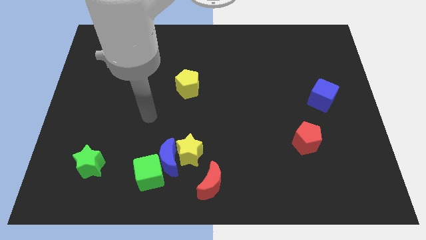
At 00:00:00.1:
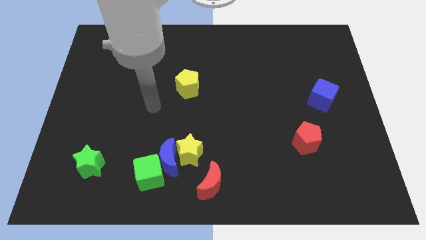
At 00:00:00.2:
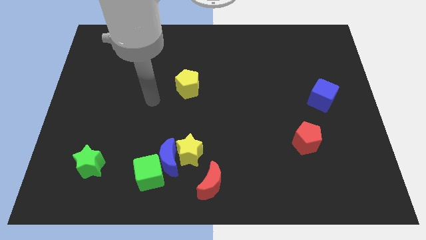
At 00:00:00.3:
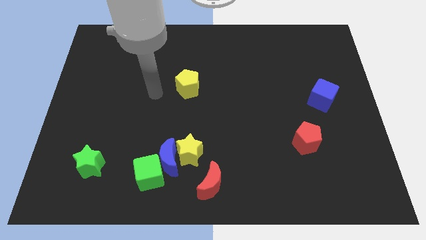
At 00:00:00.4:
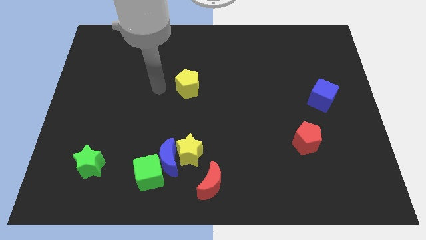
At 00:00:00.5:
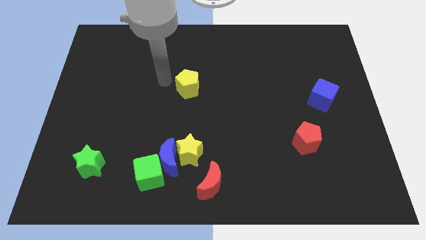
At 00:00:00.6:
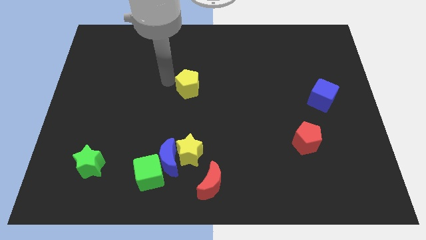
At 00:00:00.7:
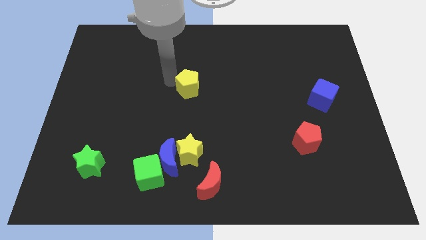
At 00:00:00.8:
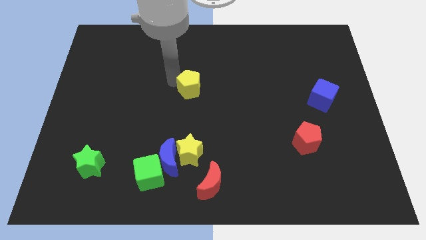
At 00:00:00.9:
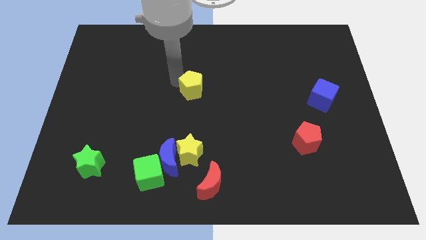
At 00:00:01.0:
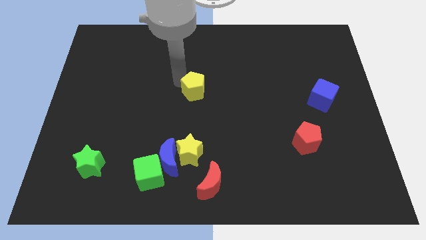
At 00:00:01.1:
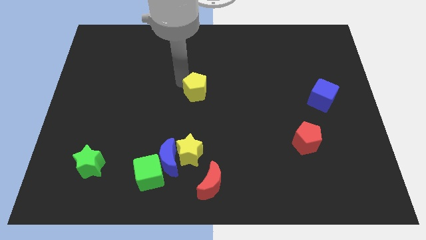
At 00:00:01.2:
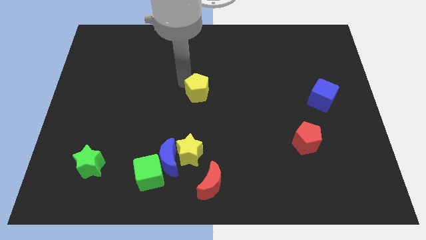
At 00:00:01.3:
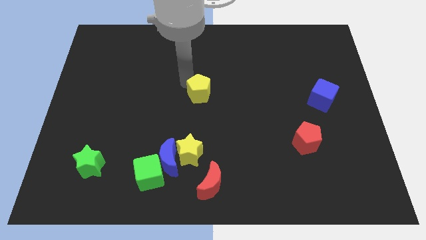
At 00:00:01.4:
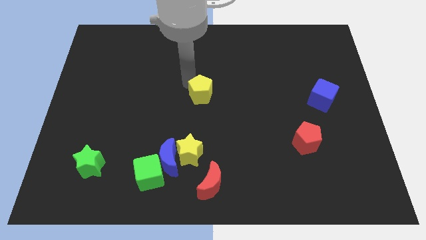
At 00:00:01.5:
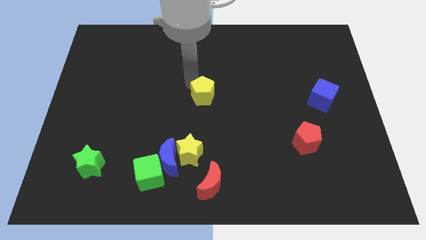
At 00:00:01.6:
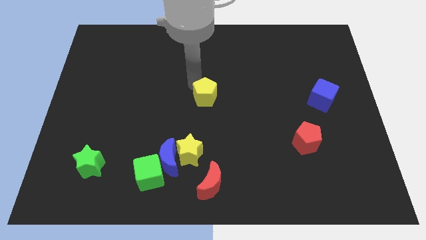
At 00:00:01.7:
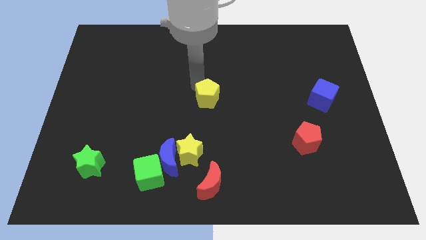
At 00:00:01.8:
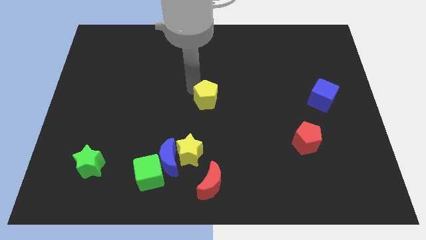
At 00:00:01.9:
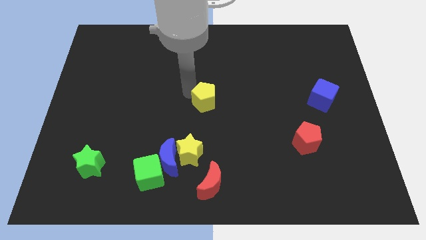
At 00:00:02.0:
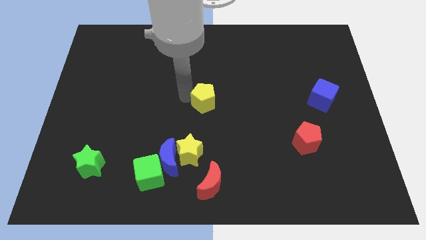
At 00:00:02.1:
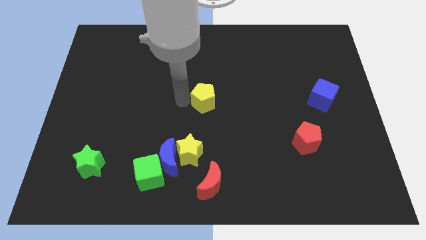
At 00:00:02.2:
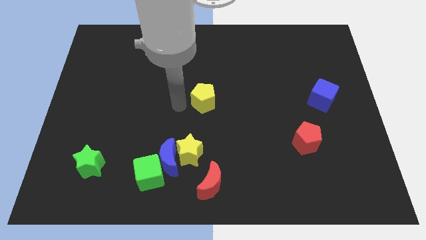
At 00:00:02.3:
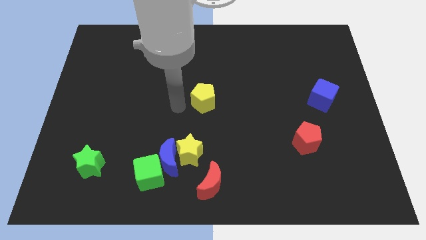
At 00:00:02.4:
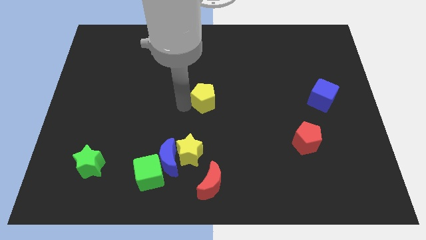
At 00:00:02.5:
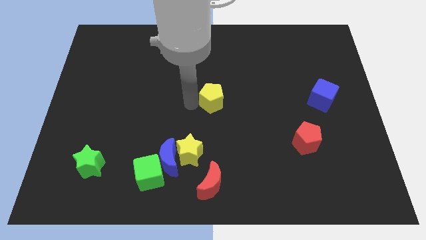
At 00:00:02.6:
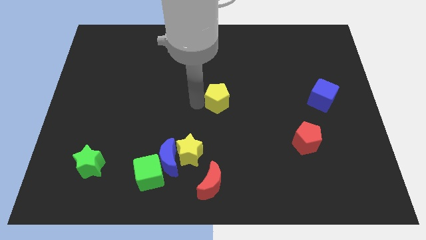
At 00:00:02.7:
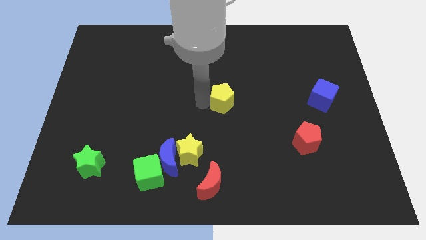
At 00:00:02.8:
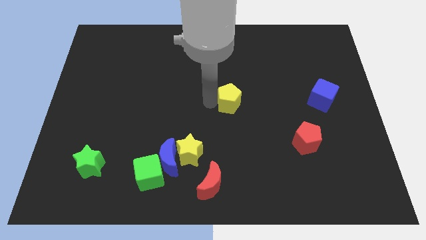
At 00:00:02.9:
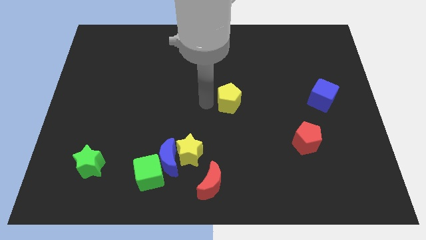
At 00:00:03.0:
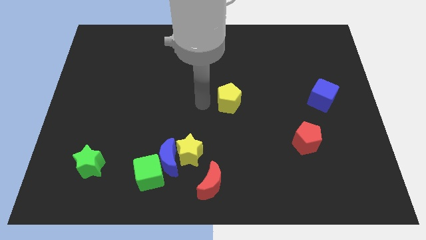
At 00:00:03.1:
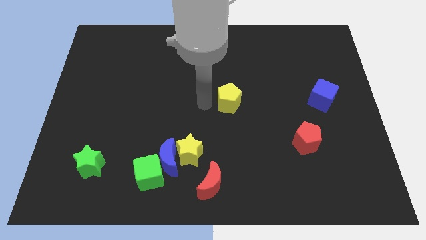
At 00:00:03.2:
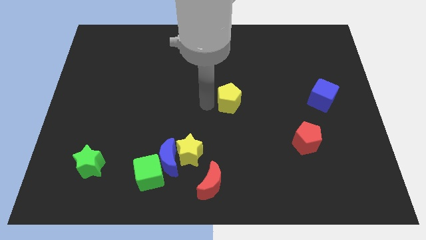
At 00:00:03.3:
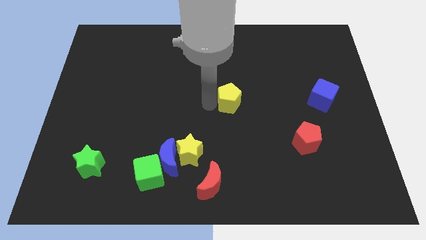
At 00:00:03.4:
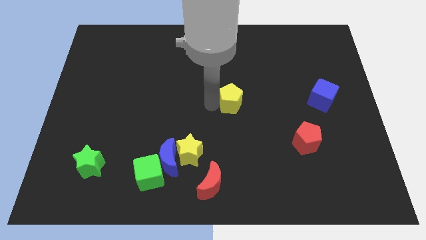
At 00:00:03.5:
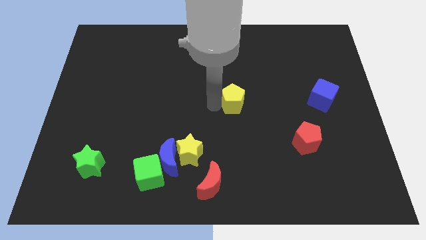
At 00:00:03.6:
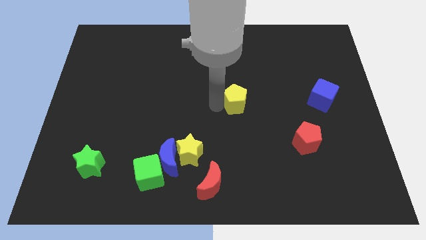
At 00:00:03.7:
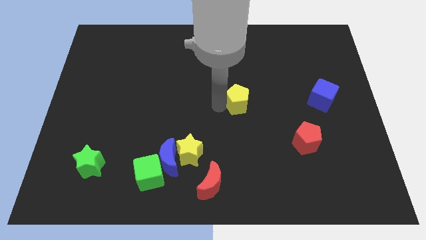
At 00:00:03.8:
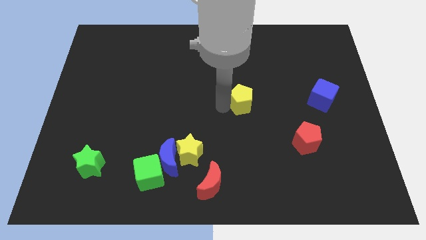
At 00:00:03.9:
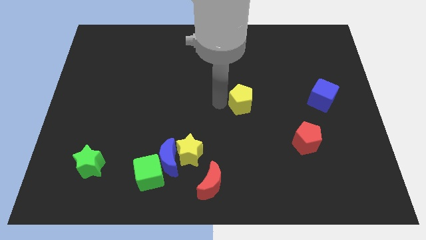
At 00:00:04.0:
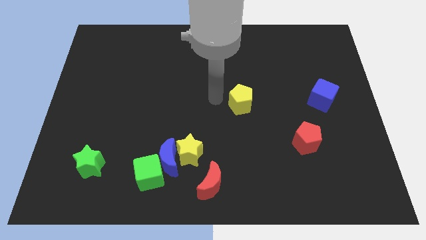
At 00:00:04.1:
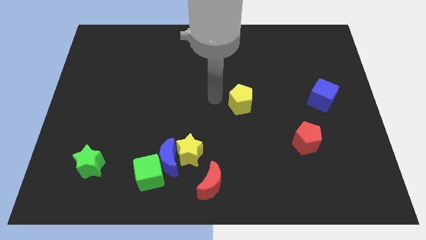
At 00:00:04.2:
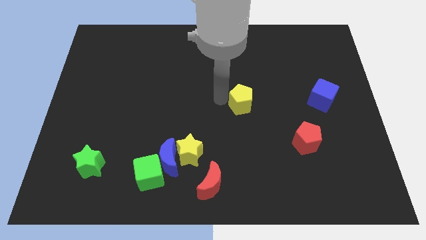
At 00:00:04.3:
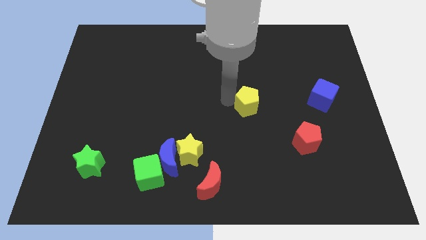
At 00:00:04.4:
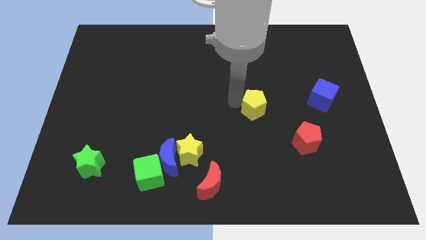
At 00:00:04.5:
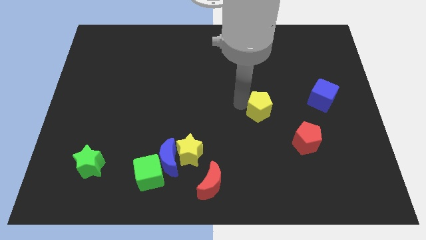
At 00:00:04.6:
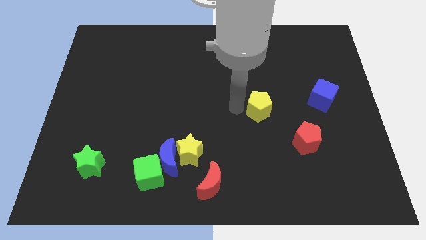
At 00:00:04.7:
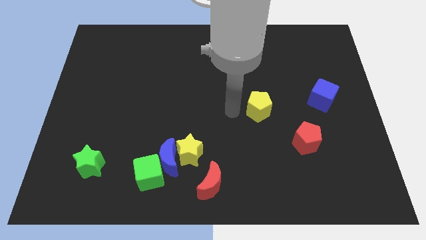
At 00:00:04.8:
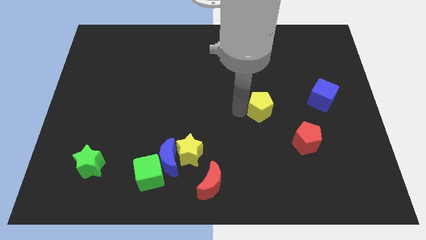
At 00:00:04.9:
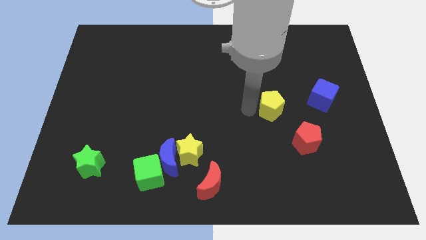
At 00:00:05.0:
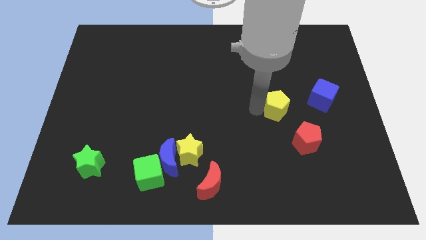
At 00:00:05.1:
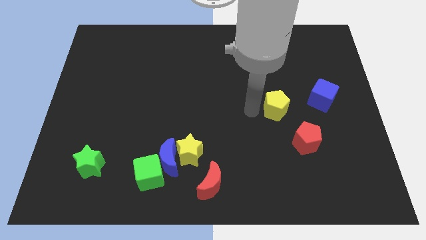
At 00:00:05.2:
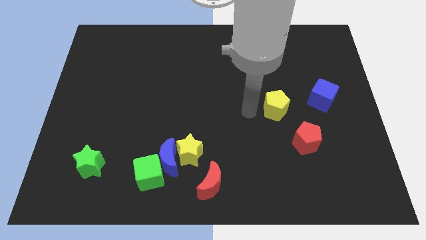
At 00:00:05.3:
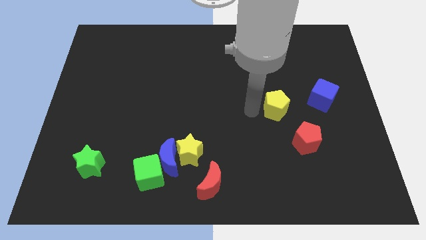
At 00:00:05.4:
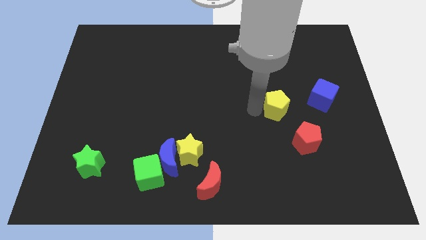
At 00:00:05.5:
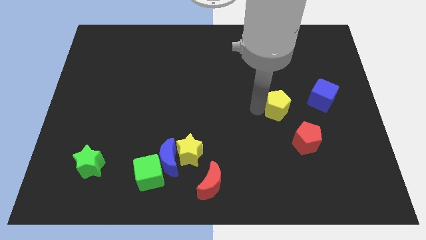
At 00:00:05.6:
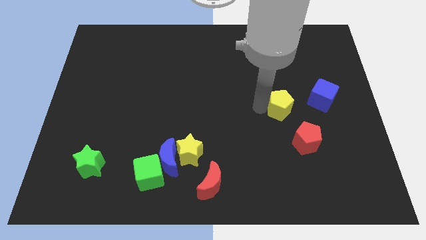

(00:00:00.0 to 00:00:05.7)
push the yellow pentagon to the top side of the red pentagon

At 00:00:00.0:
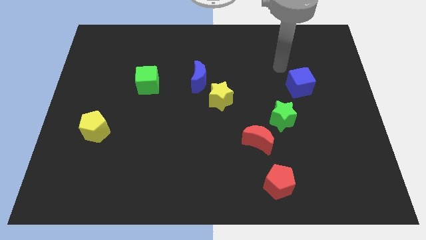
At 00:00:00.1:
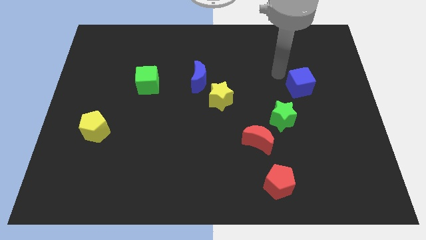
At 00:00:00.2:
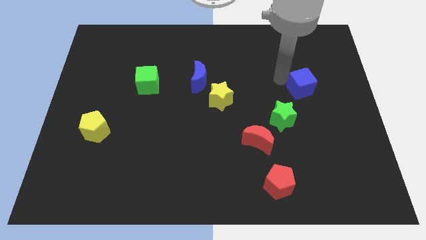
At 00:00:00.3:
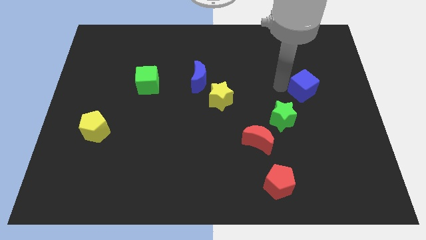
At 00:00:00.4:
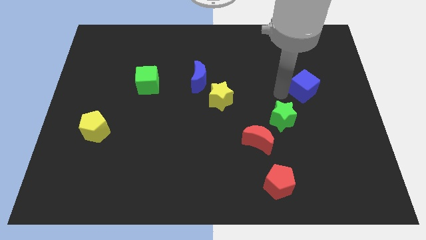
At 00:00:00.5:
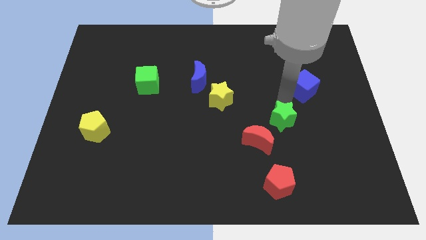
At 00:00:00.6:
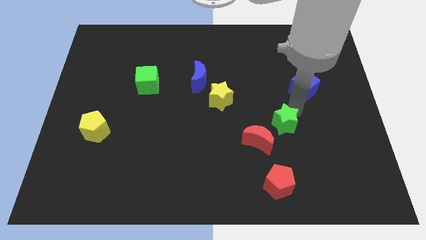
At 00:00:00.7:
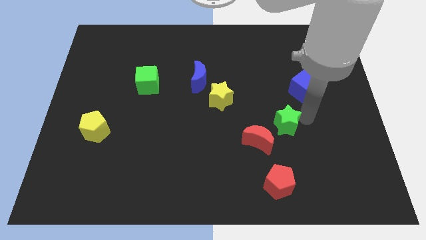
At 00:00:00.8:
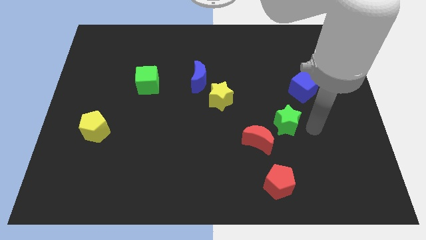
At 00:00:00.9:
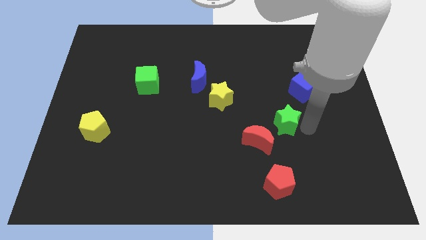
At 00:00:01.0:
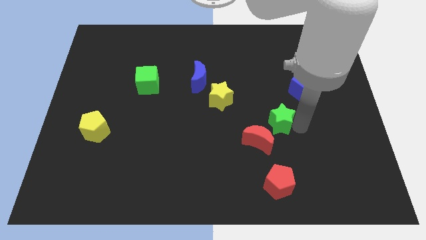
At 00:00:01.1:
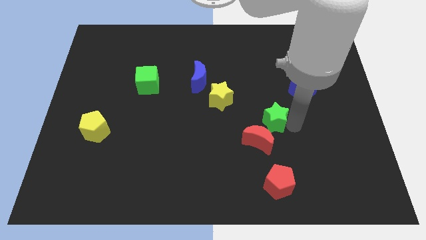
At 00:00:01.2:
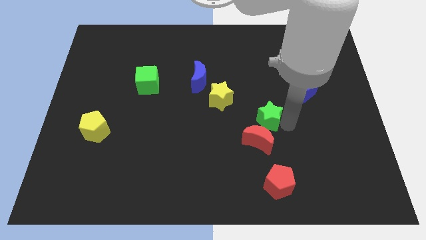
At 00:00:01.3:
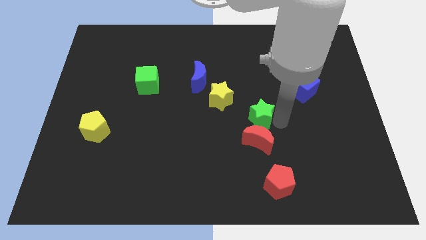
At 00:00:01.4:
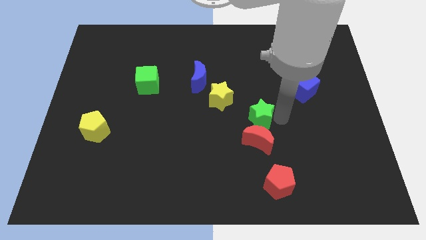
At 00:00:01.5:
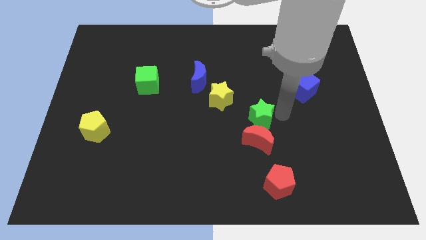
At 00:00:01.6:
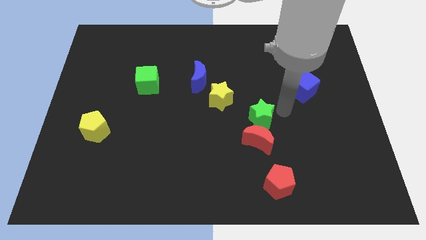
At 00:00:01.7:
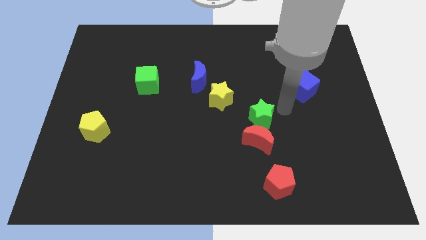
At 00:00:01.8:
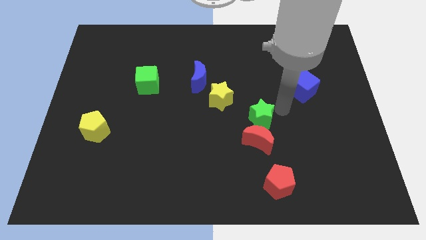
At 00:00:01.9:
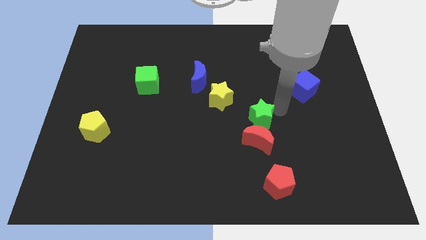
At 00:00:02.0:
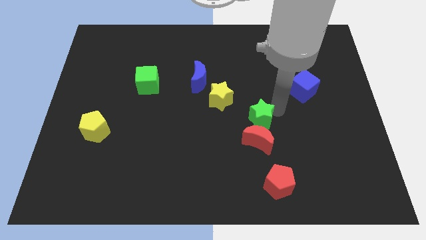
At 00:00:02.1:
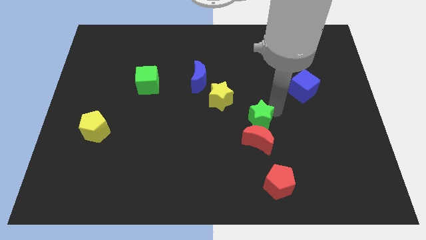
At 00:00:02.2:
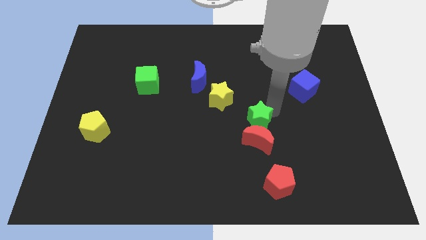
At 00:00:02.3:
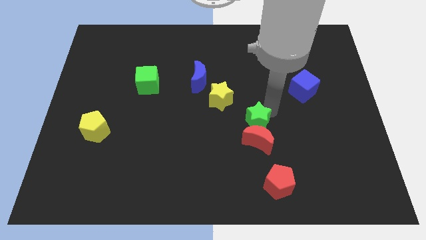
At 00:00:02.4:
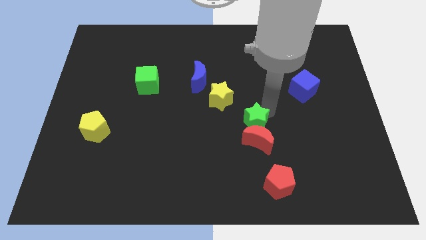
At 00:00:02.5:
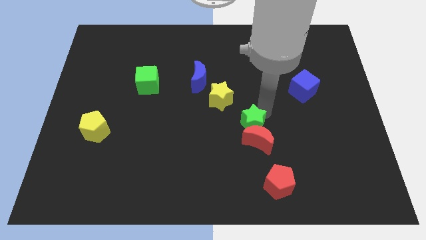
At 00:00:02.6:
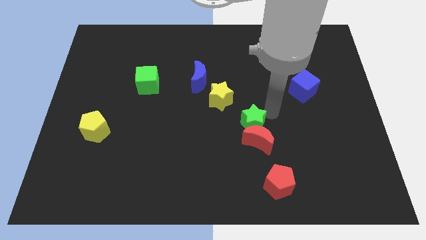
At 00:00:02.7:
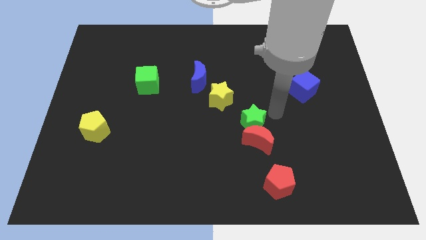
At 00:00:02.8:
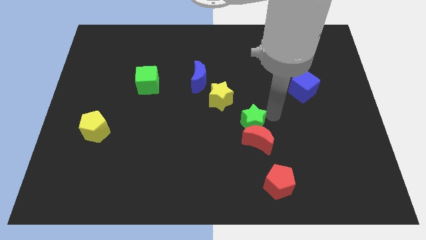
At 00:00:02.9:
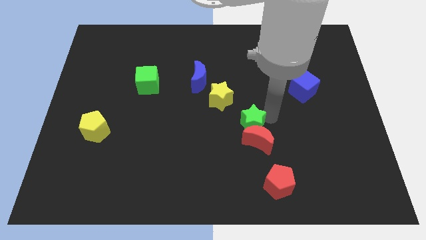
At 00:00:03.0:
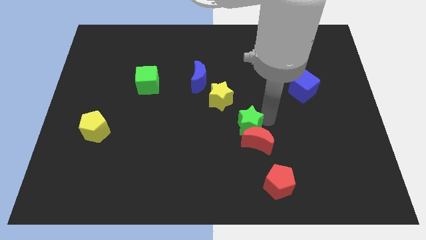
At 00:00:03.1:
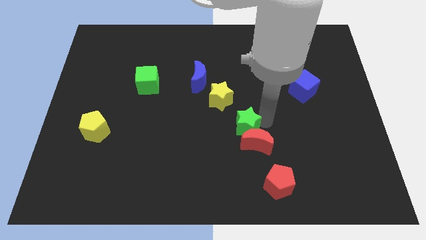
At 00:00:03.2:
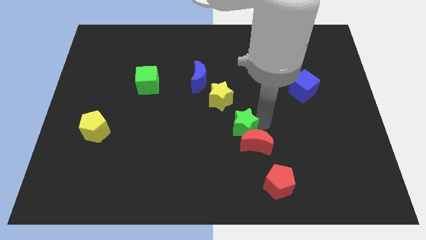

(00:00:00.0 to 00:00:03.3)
slide the green star to the bottom of the yellow star
